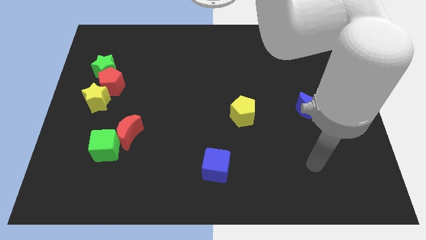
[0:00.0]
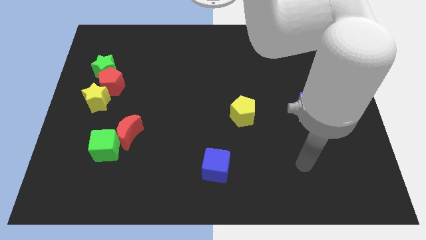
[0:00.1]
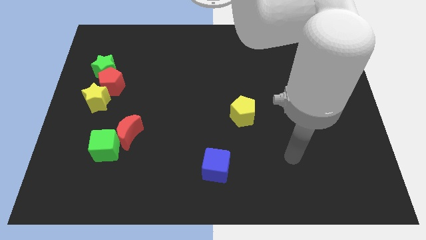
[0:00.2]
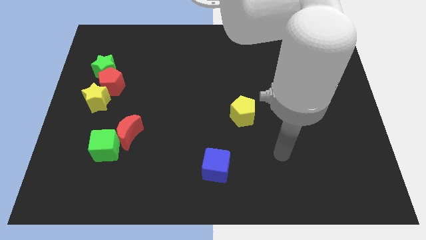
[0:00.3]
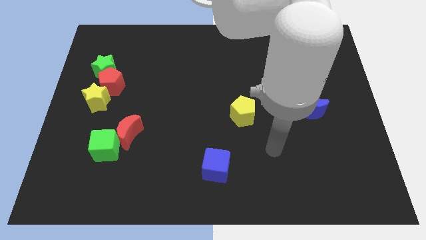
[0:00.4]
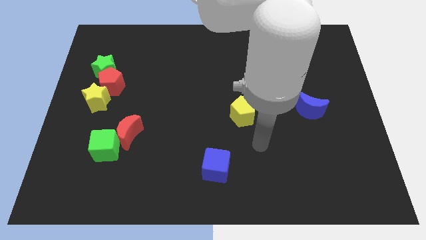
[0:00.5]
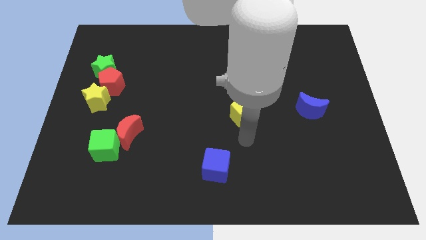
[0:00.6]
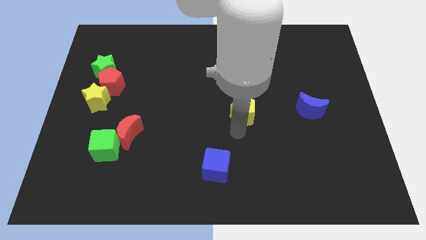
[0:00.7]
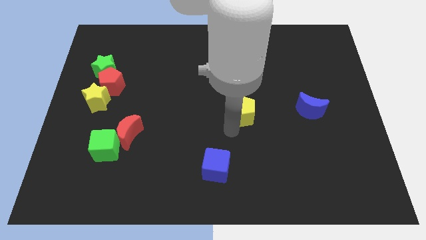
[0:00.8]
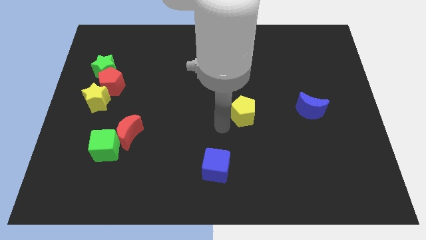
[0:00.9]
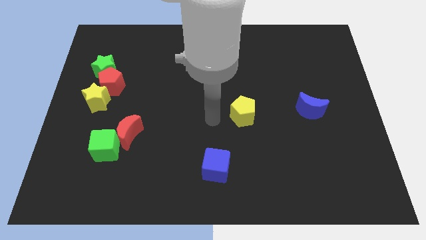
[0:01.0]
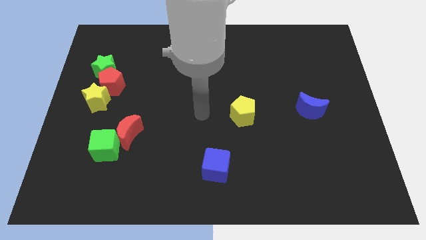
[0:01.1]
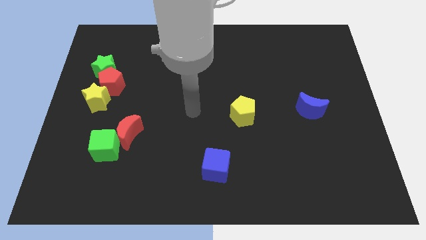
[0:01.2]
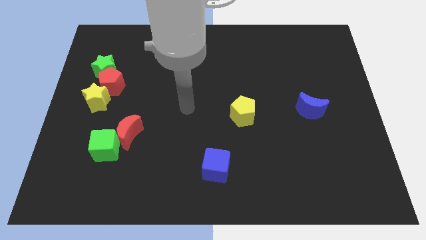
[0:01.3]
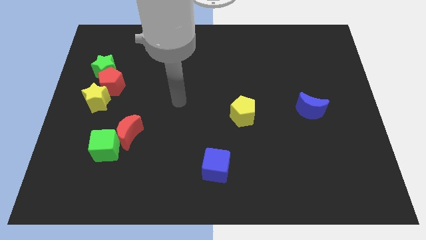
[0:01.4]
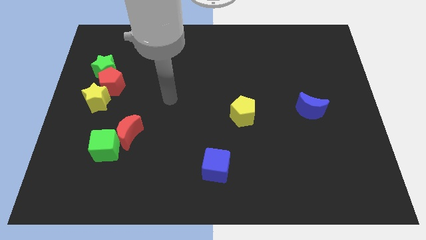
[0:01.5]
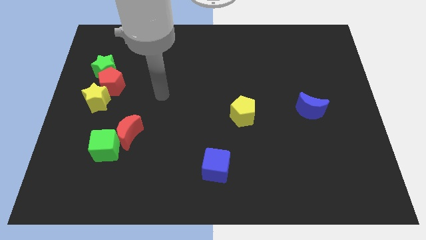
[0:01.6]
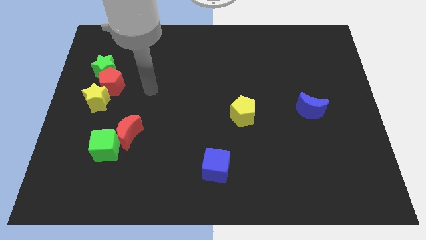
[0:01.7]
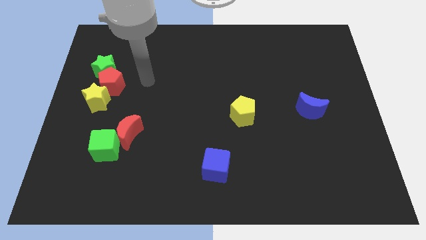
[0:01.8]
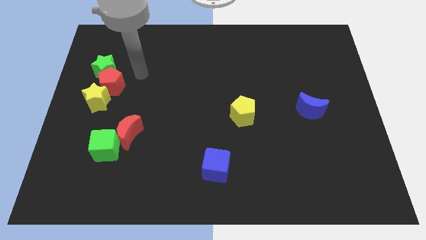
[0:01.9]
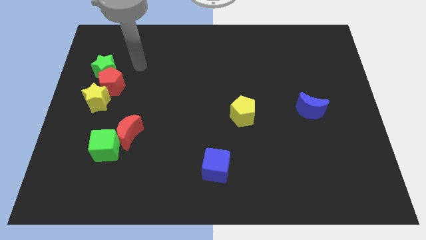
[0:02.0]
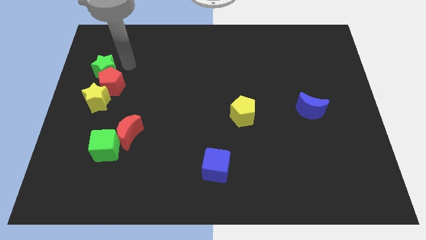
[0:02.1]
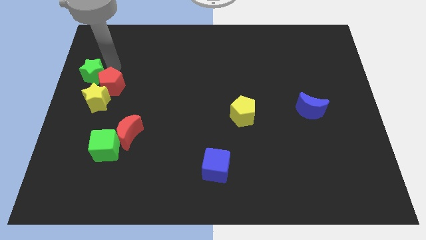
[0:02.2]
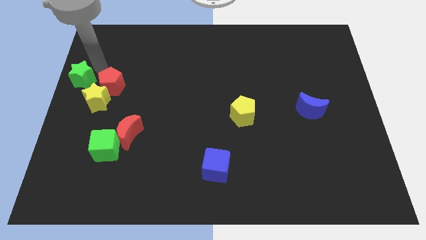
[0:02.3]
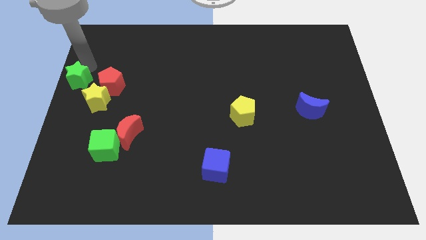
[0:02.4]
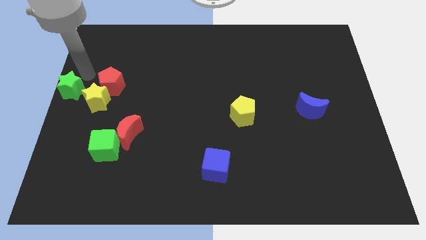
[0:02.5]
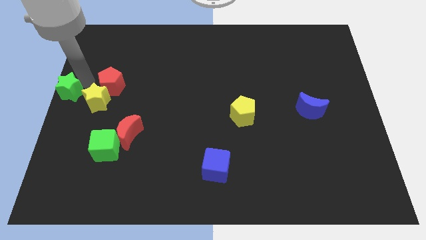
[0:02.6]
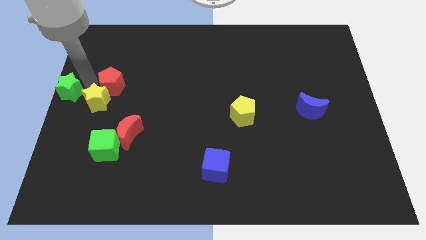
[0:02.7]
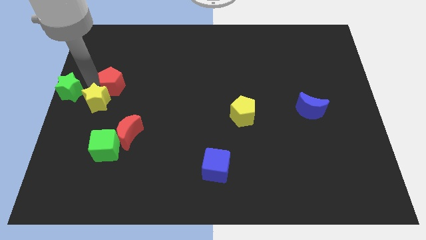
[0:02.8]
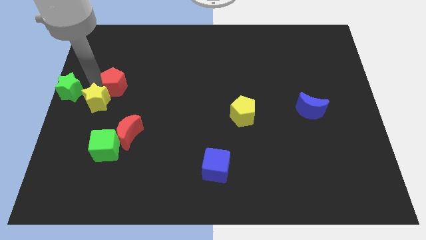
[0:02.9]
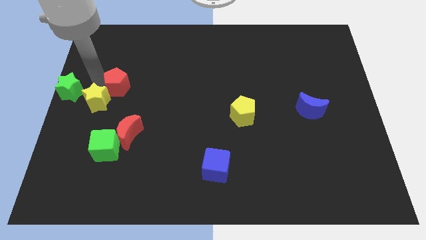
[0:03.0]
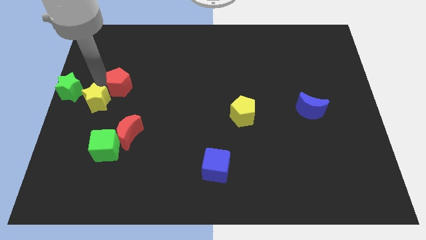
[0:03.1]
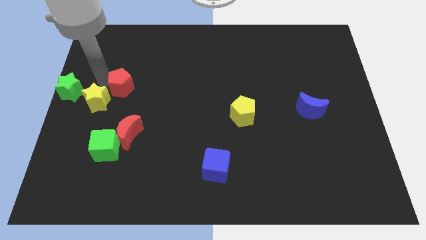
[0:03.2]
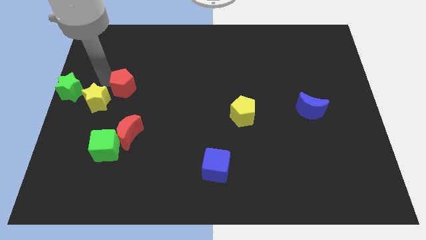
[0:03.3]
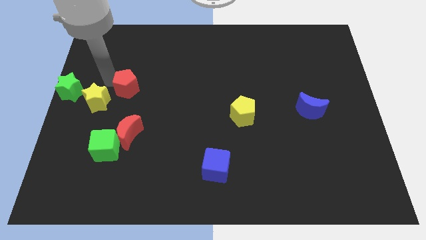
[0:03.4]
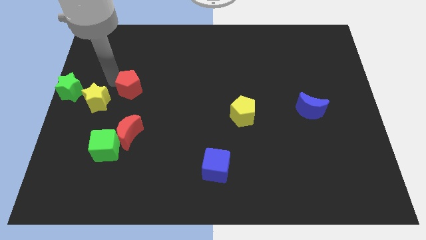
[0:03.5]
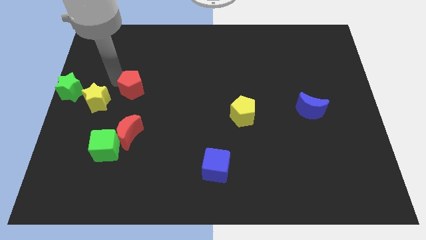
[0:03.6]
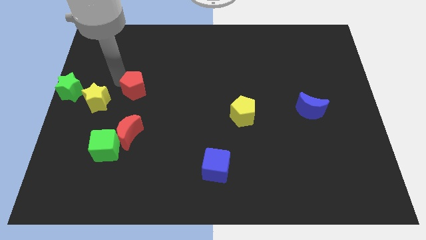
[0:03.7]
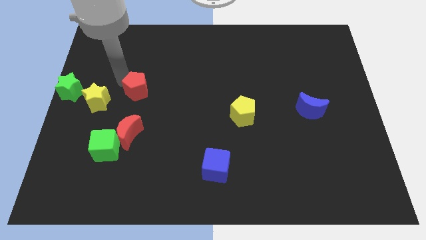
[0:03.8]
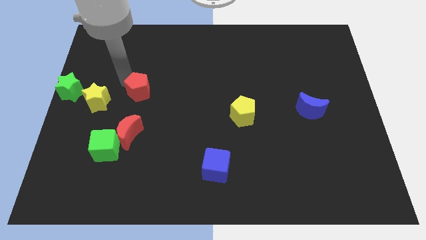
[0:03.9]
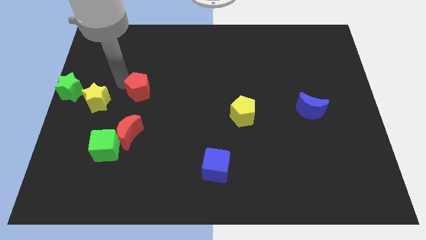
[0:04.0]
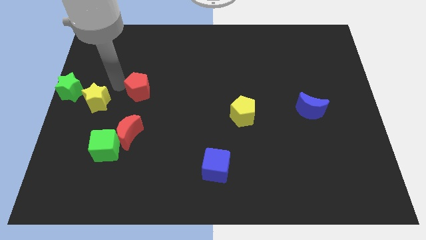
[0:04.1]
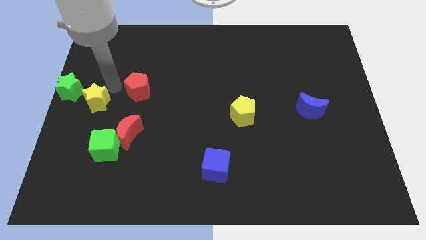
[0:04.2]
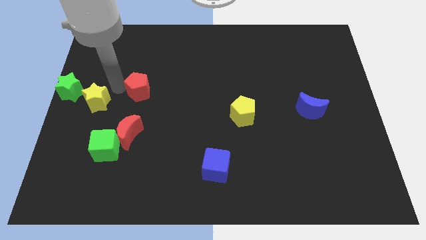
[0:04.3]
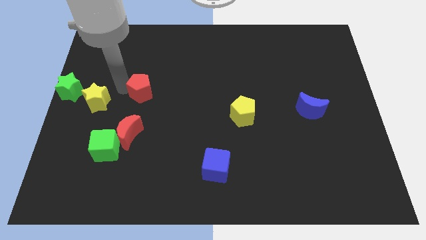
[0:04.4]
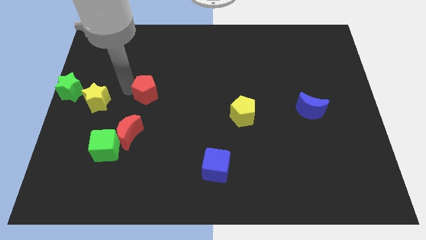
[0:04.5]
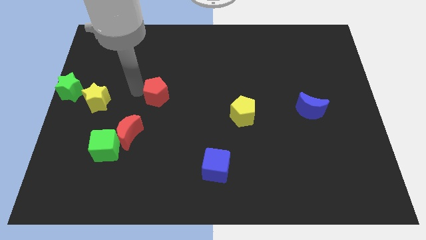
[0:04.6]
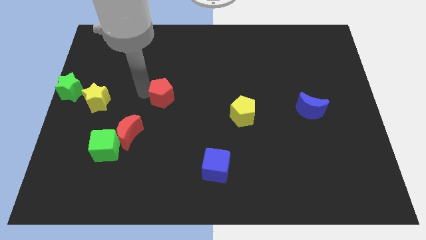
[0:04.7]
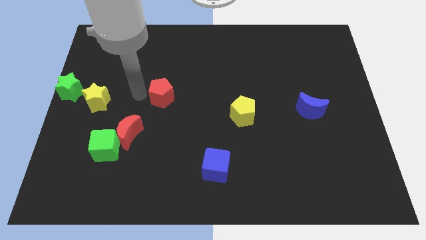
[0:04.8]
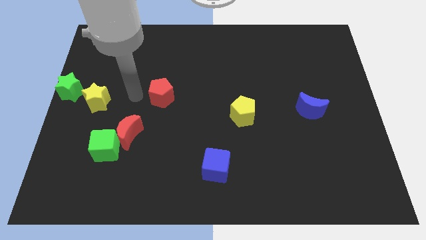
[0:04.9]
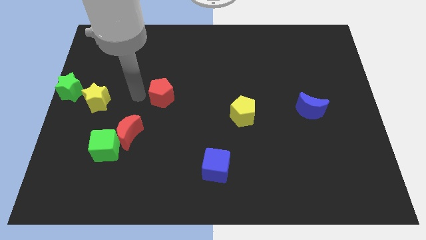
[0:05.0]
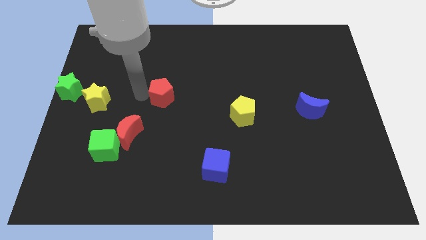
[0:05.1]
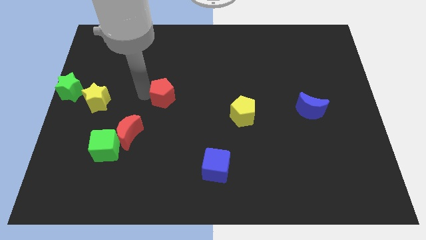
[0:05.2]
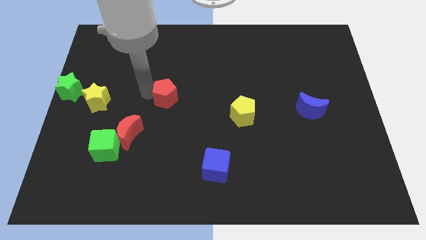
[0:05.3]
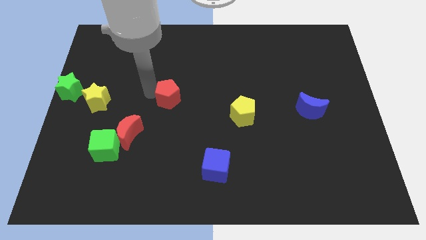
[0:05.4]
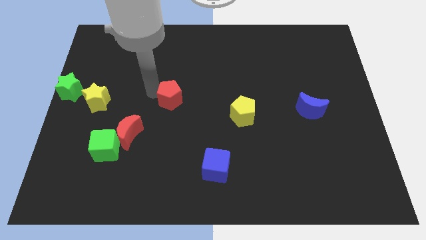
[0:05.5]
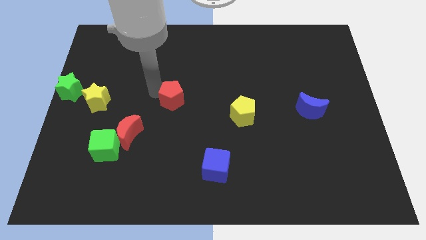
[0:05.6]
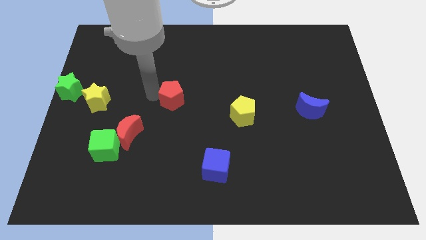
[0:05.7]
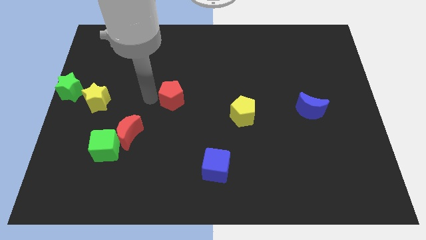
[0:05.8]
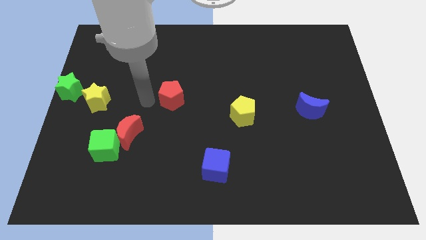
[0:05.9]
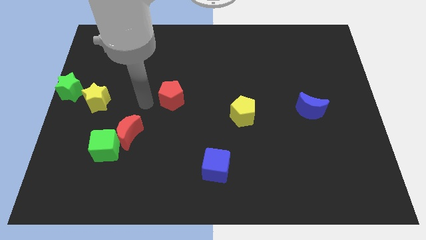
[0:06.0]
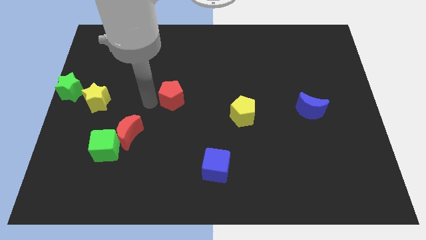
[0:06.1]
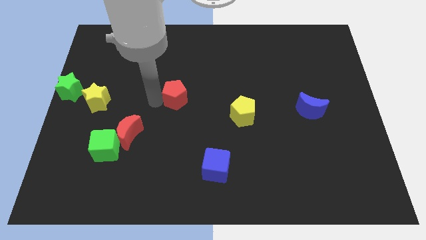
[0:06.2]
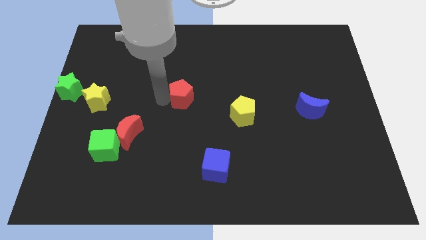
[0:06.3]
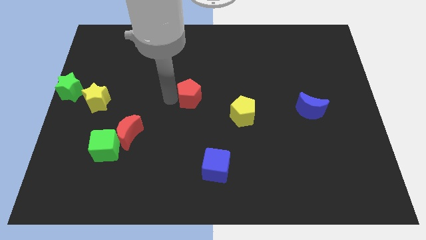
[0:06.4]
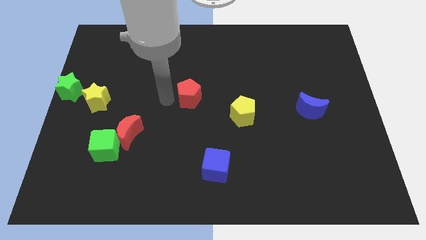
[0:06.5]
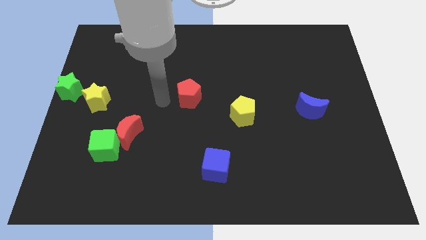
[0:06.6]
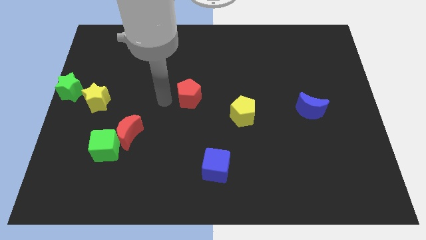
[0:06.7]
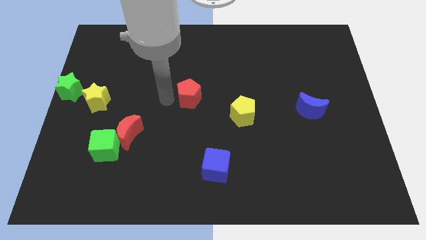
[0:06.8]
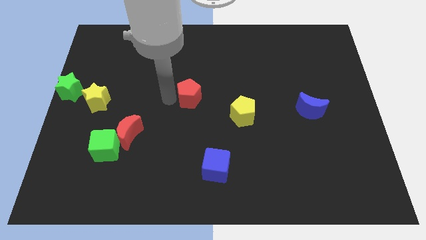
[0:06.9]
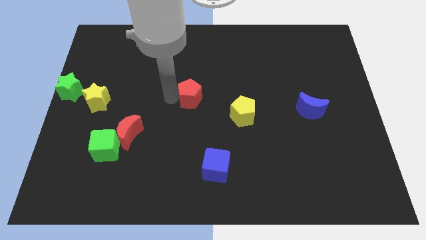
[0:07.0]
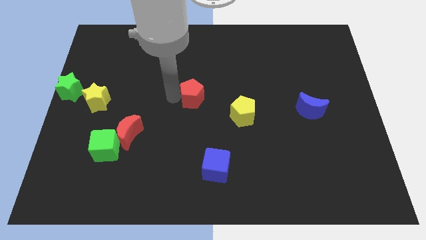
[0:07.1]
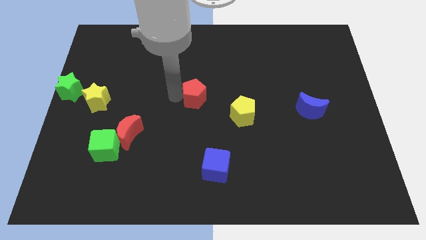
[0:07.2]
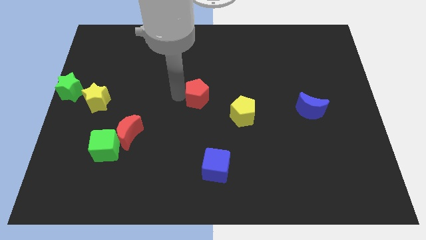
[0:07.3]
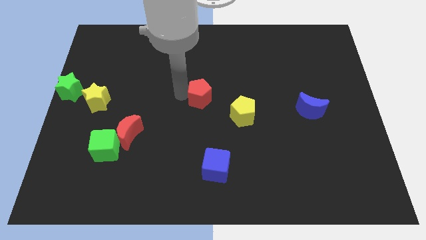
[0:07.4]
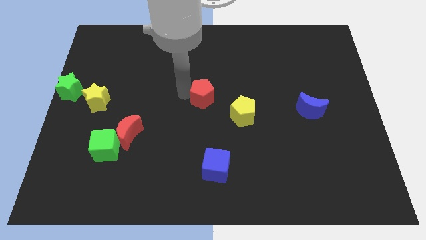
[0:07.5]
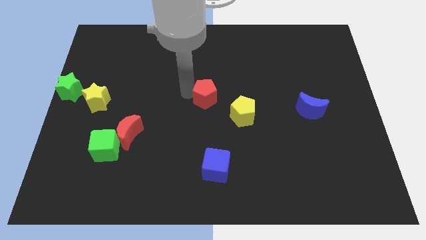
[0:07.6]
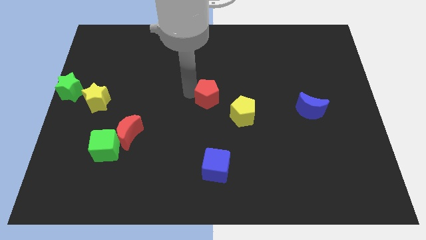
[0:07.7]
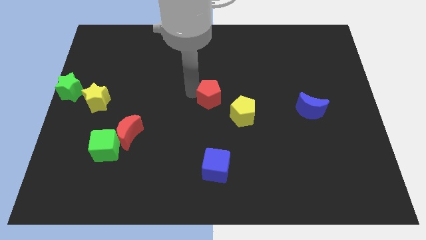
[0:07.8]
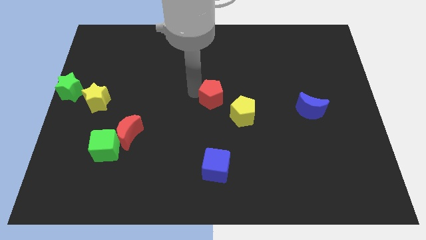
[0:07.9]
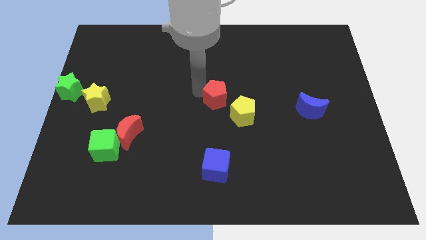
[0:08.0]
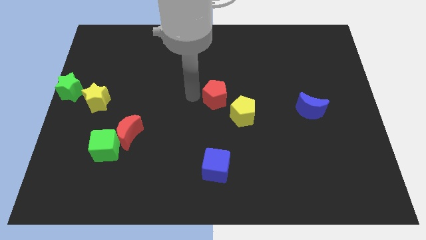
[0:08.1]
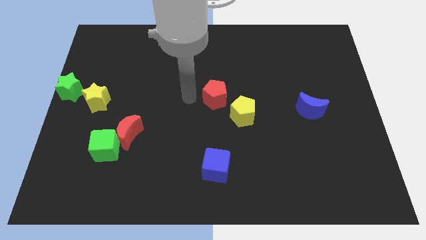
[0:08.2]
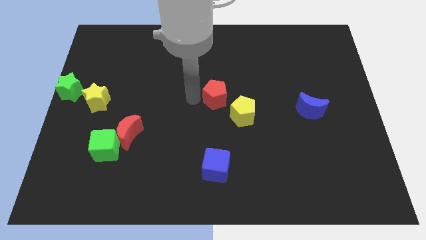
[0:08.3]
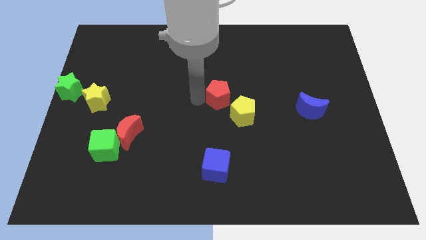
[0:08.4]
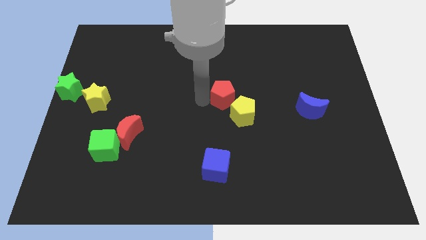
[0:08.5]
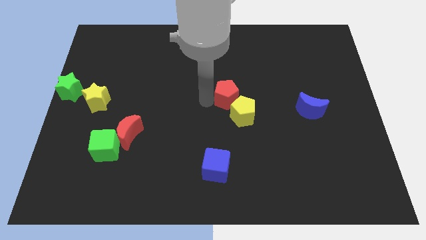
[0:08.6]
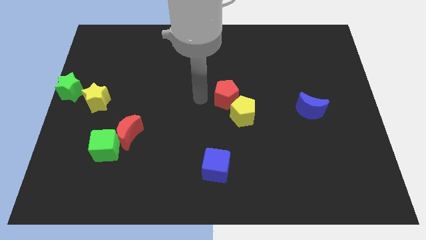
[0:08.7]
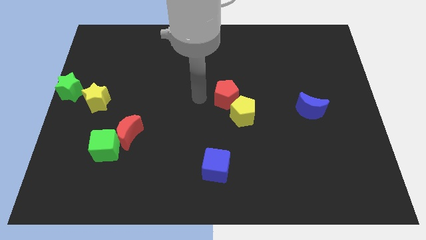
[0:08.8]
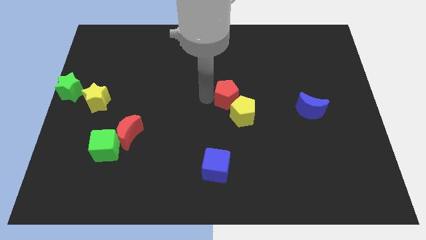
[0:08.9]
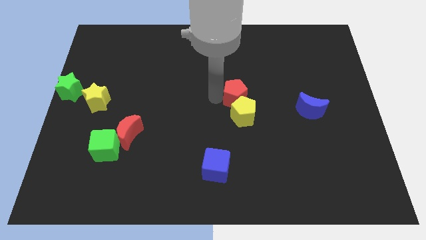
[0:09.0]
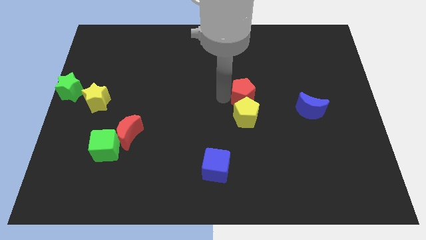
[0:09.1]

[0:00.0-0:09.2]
slide the red pentagon to the top right side of the yellow pentagon
